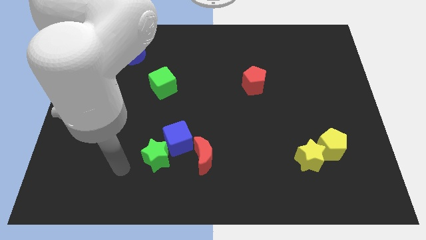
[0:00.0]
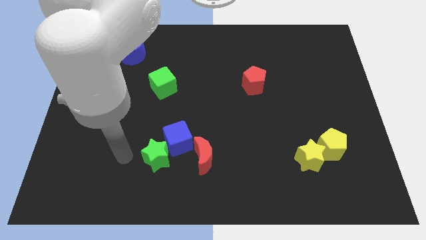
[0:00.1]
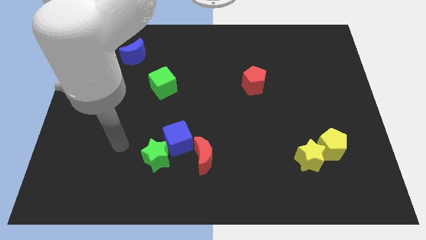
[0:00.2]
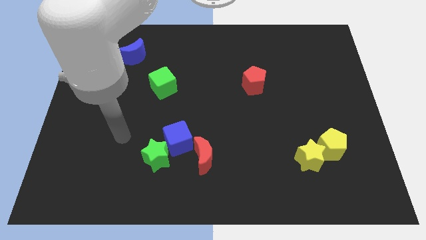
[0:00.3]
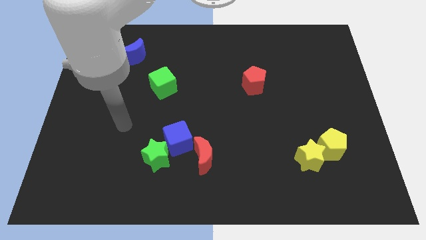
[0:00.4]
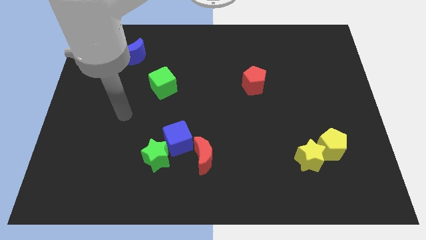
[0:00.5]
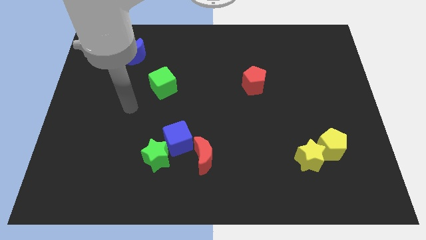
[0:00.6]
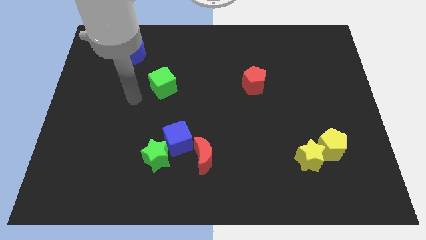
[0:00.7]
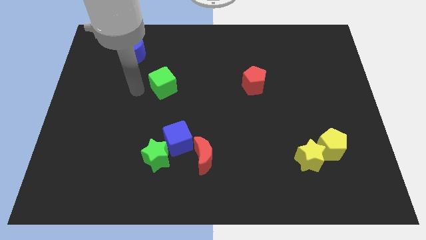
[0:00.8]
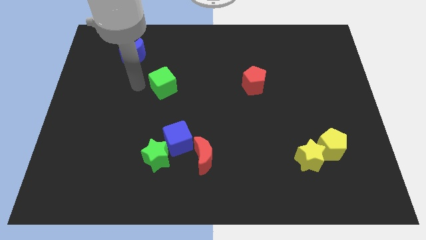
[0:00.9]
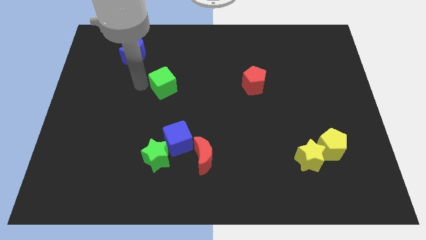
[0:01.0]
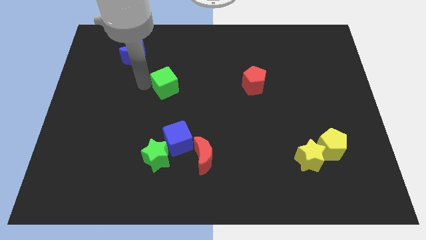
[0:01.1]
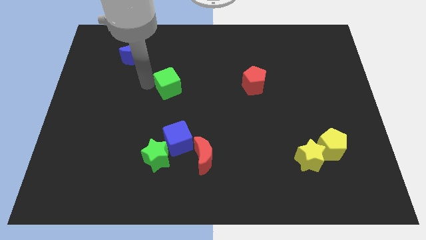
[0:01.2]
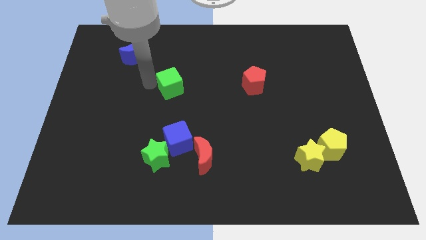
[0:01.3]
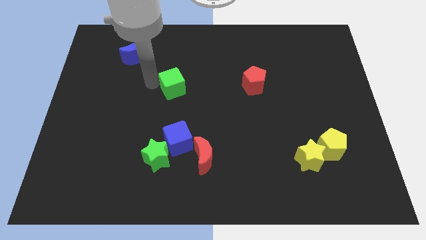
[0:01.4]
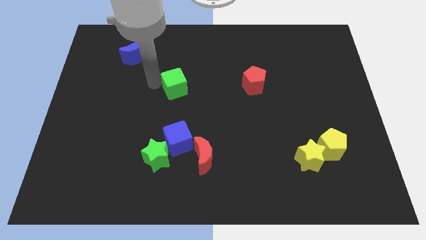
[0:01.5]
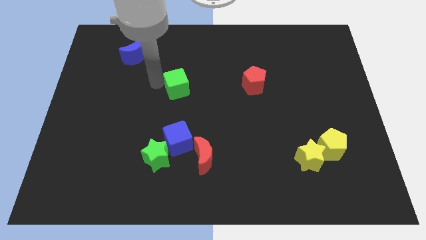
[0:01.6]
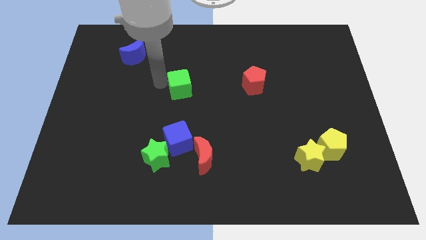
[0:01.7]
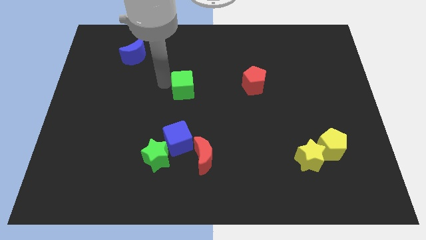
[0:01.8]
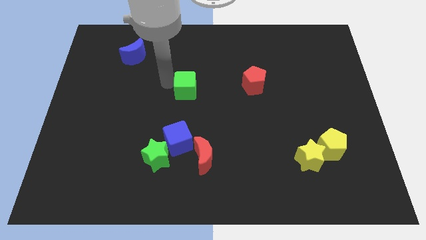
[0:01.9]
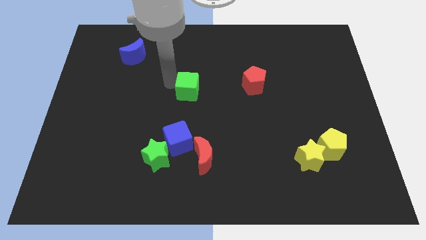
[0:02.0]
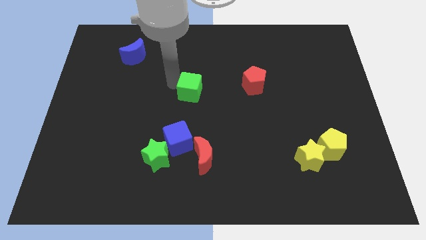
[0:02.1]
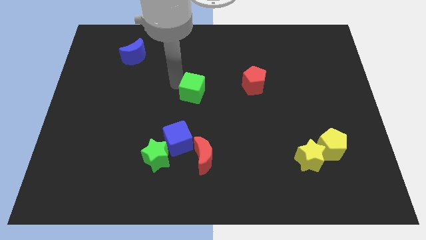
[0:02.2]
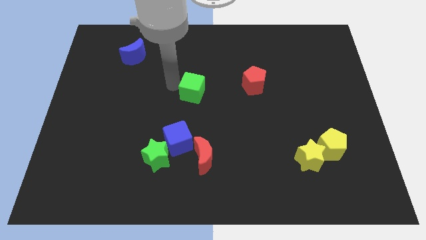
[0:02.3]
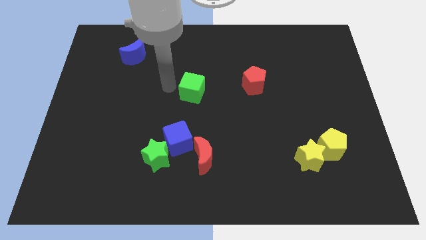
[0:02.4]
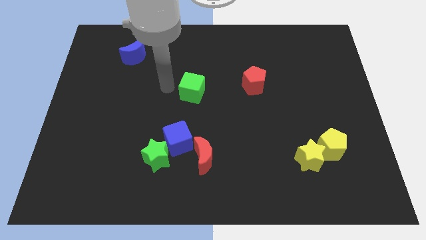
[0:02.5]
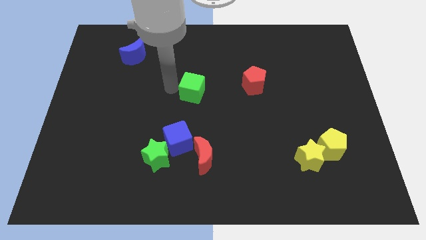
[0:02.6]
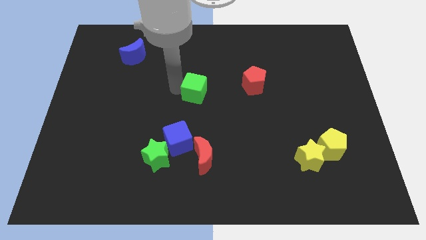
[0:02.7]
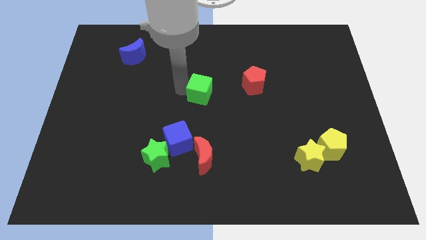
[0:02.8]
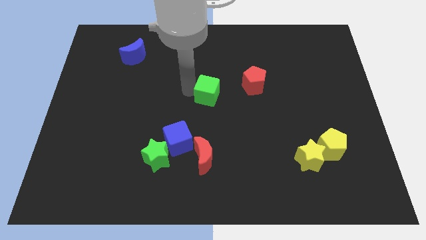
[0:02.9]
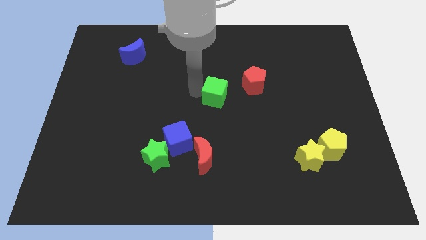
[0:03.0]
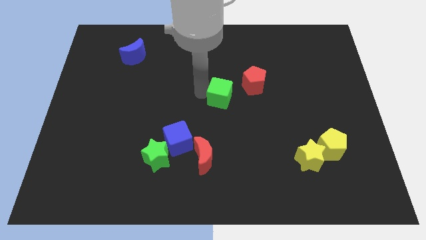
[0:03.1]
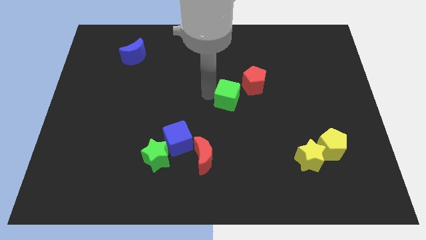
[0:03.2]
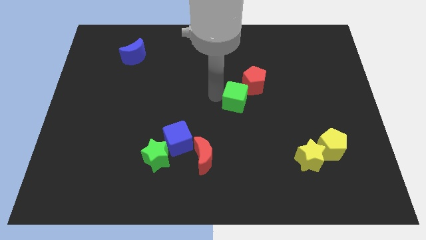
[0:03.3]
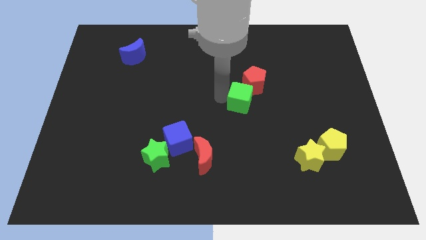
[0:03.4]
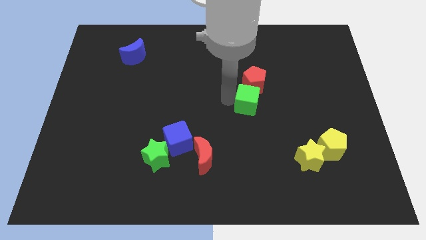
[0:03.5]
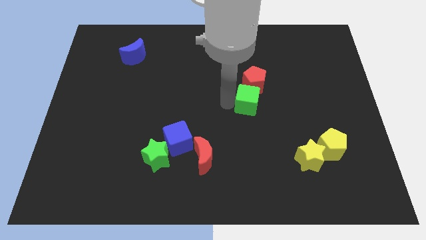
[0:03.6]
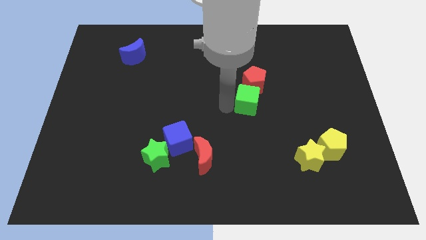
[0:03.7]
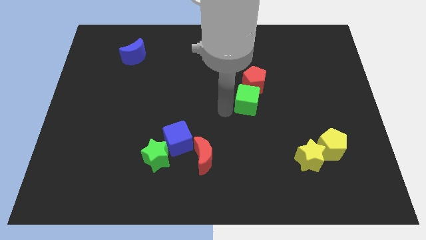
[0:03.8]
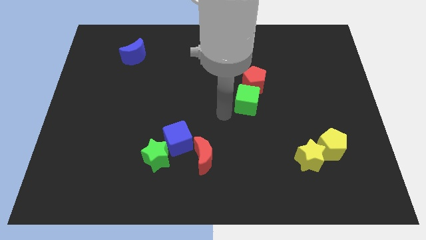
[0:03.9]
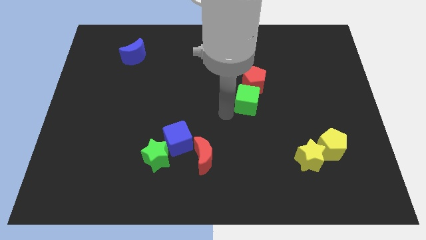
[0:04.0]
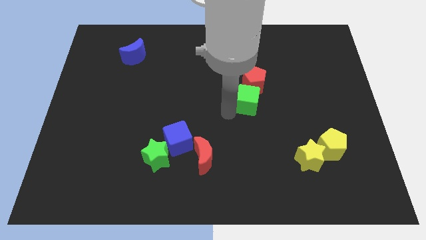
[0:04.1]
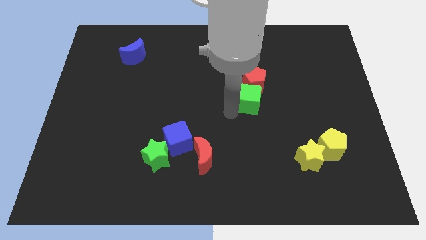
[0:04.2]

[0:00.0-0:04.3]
slide the green cube right

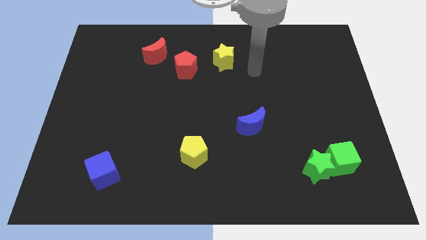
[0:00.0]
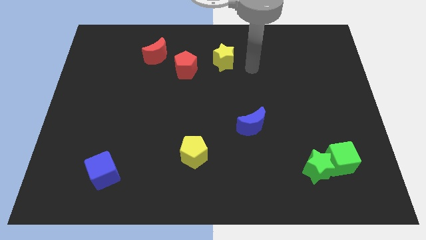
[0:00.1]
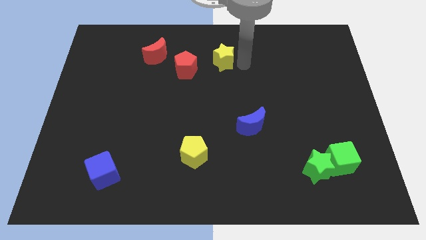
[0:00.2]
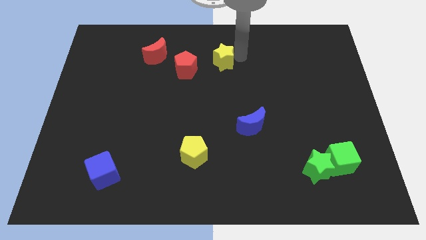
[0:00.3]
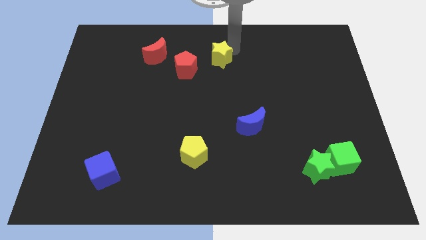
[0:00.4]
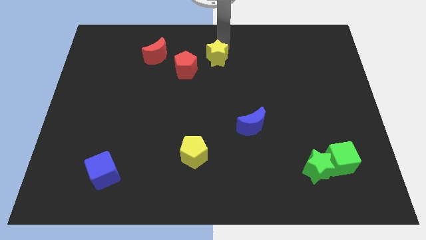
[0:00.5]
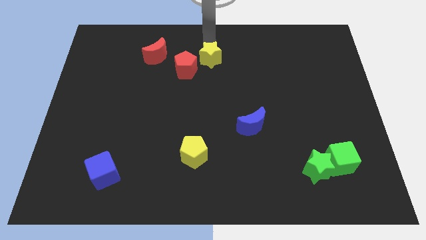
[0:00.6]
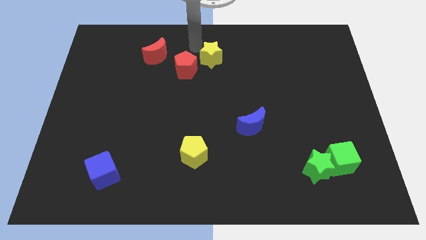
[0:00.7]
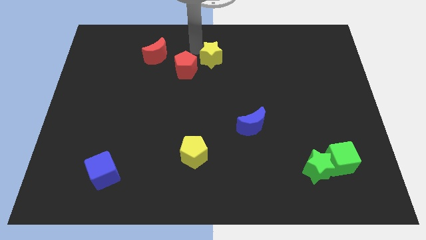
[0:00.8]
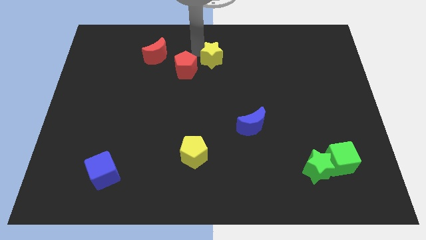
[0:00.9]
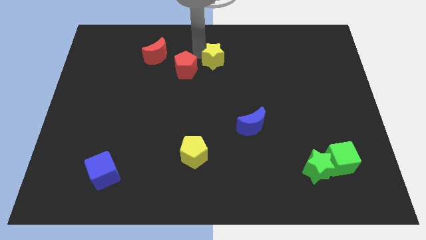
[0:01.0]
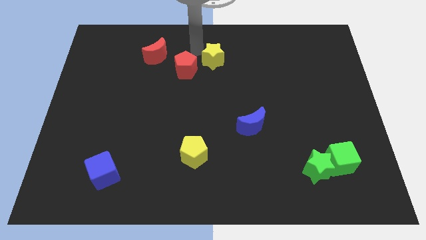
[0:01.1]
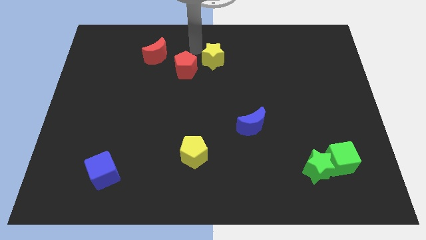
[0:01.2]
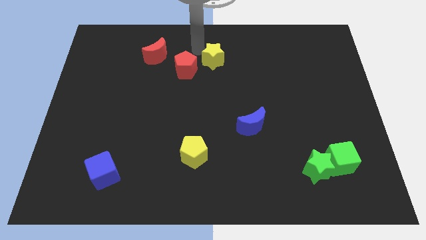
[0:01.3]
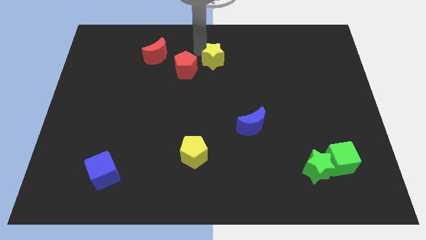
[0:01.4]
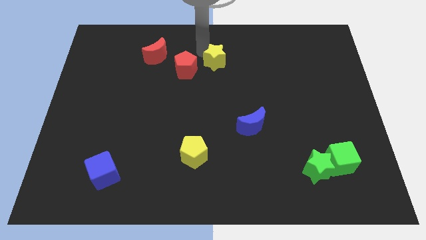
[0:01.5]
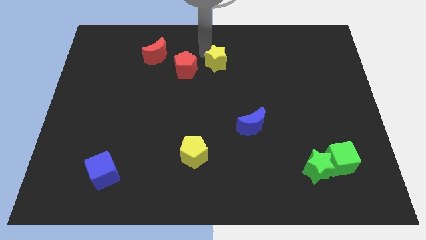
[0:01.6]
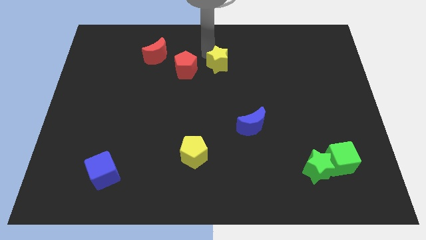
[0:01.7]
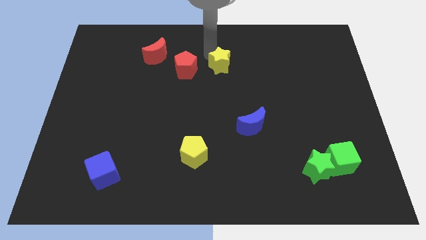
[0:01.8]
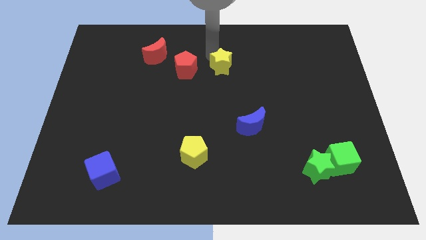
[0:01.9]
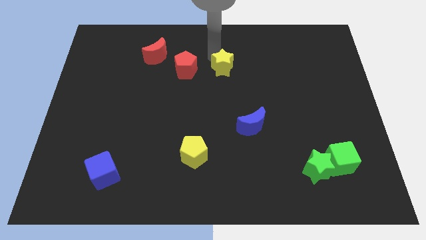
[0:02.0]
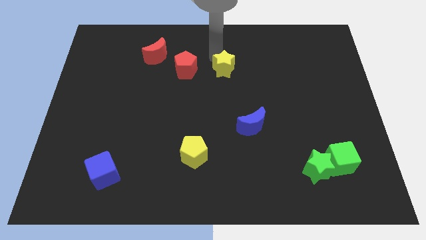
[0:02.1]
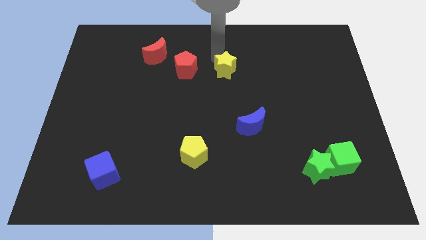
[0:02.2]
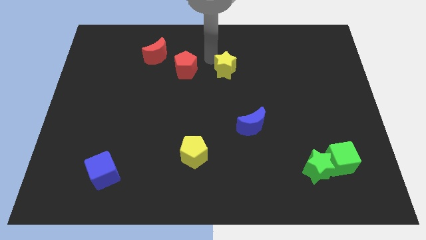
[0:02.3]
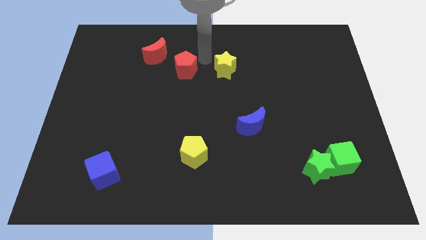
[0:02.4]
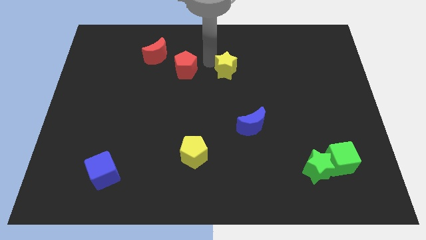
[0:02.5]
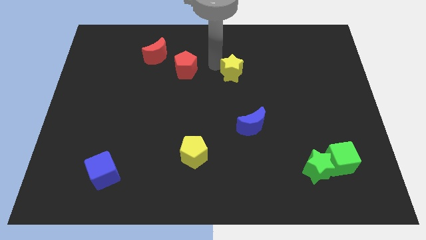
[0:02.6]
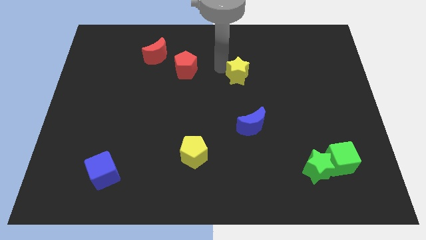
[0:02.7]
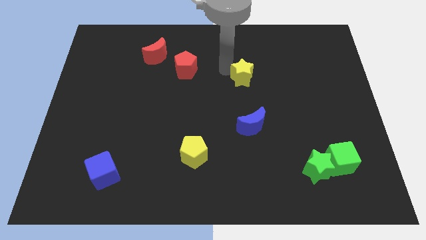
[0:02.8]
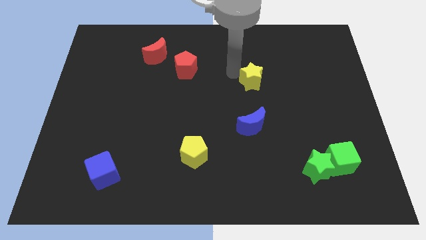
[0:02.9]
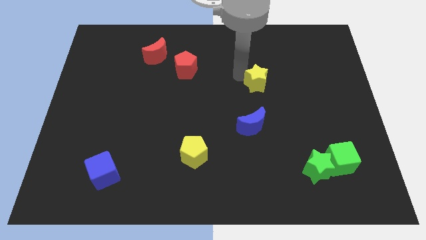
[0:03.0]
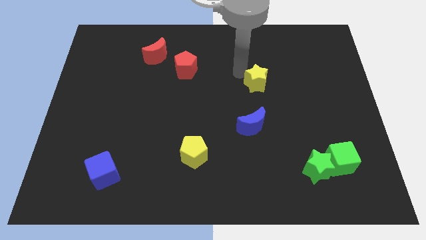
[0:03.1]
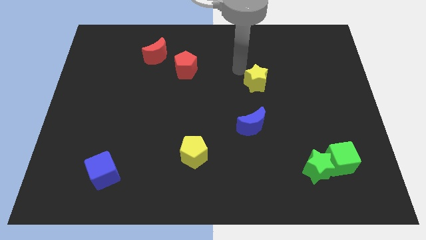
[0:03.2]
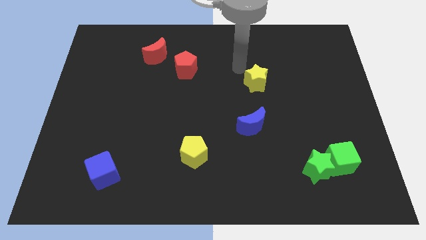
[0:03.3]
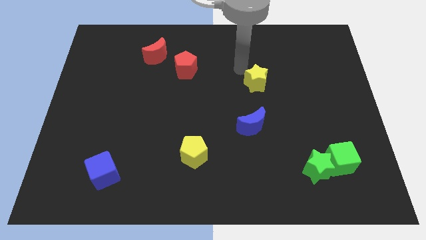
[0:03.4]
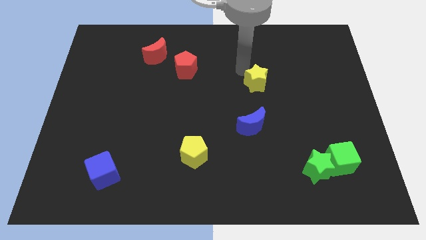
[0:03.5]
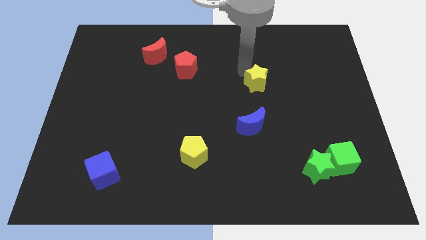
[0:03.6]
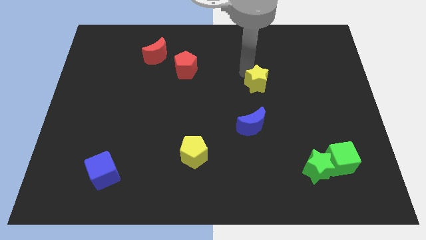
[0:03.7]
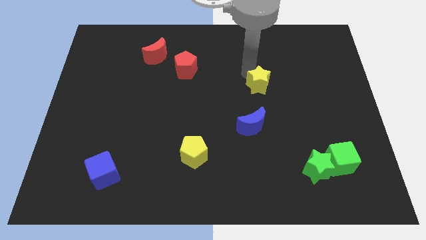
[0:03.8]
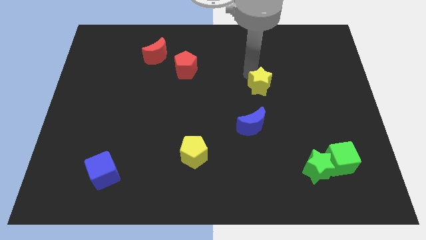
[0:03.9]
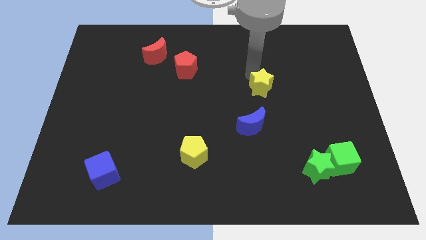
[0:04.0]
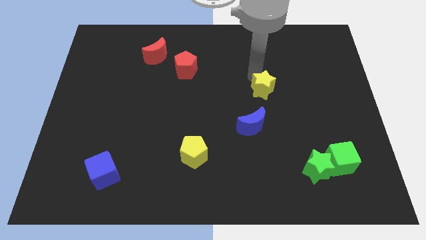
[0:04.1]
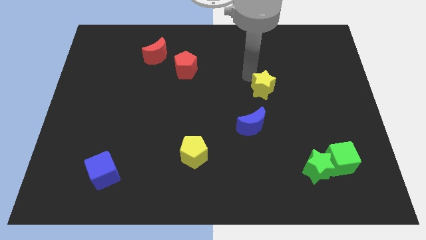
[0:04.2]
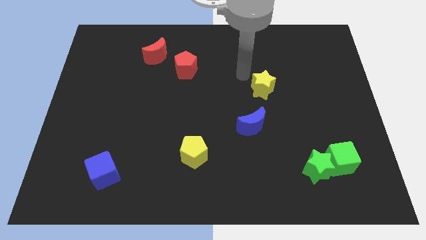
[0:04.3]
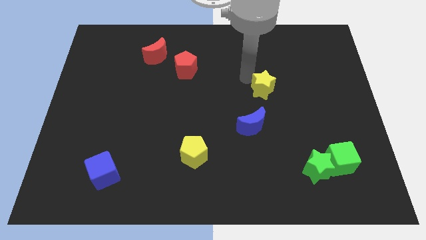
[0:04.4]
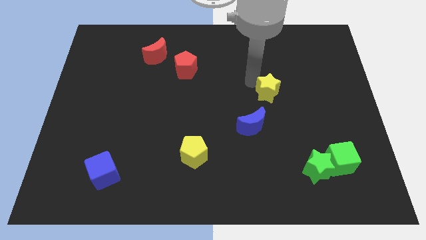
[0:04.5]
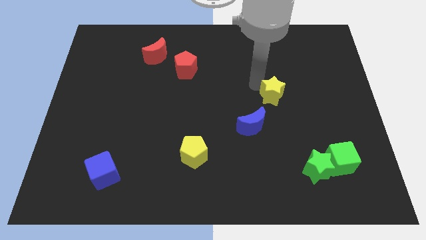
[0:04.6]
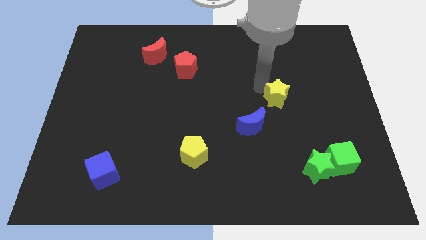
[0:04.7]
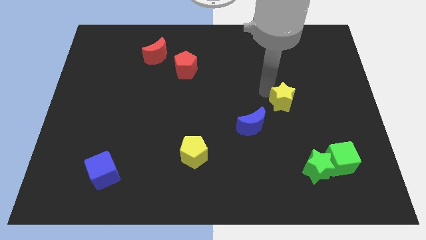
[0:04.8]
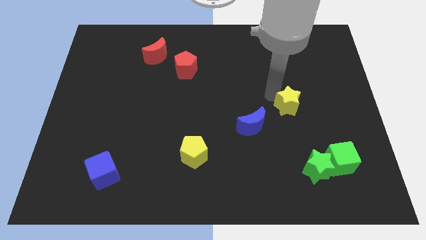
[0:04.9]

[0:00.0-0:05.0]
push the yellow star diagonally downwards and to the right
